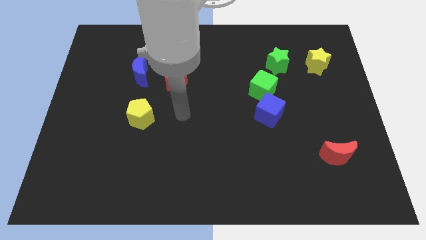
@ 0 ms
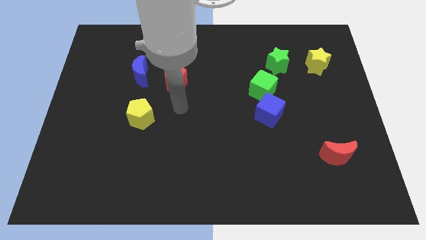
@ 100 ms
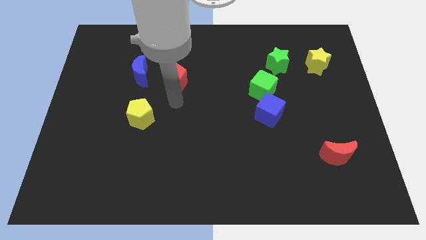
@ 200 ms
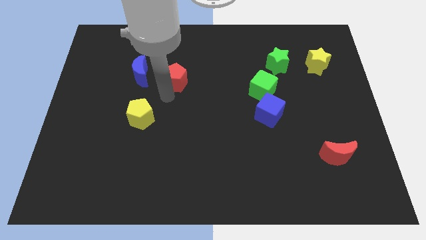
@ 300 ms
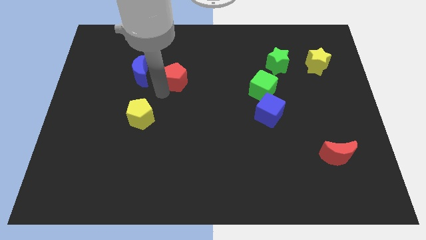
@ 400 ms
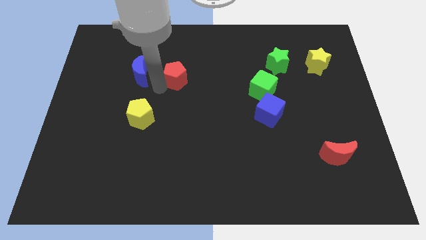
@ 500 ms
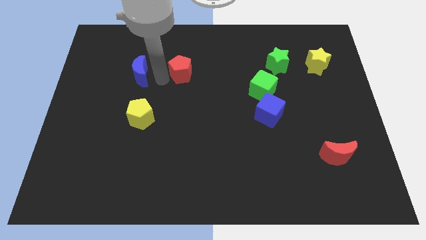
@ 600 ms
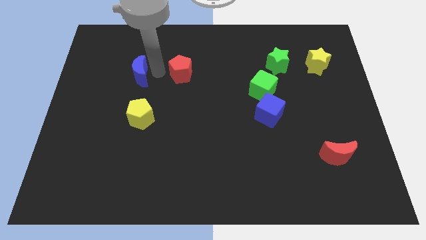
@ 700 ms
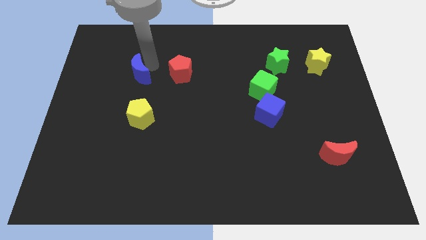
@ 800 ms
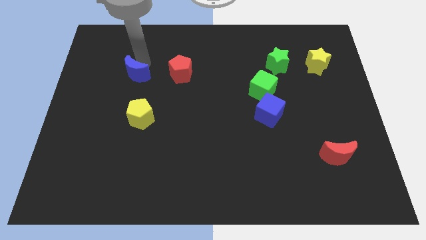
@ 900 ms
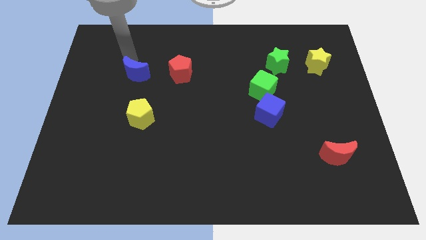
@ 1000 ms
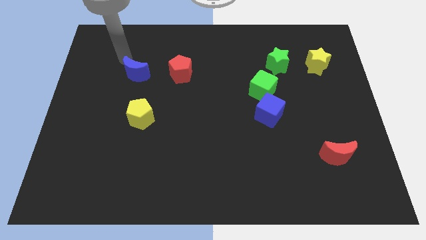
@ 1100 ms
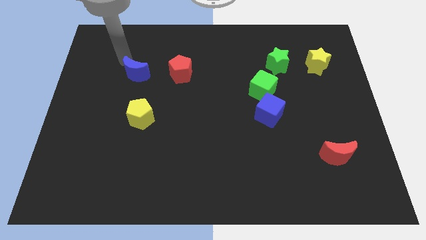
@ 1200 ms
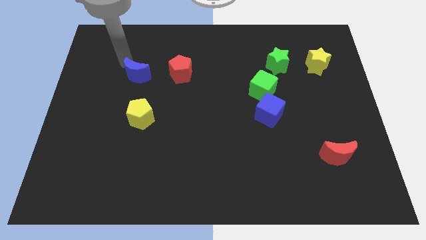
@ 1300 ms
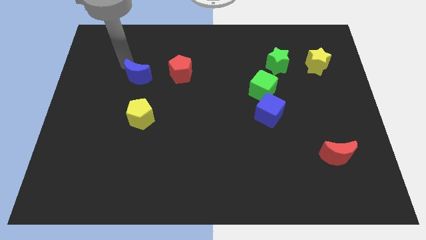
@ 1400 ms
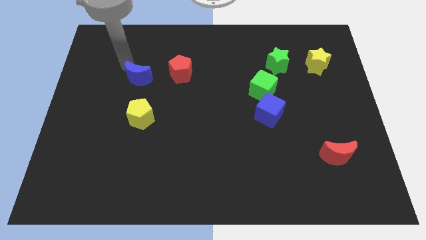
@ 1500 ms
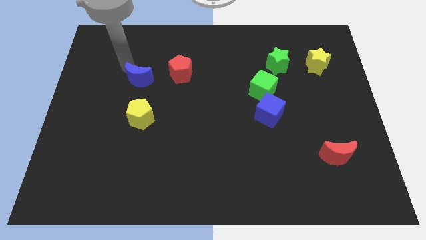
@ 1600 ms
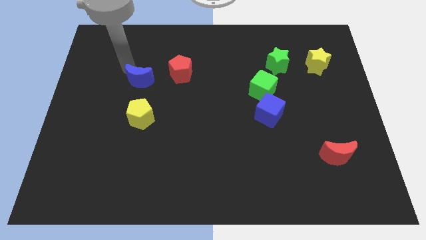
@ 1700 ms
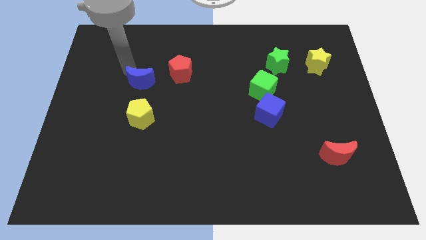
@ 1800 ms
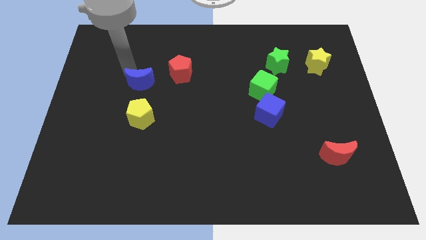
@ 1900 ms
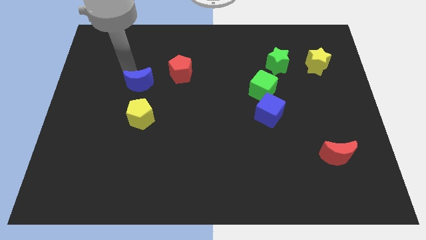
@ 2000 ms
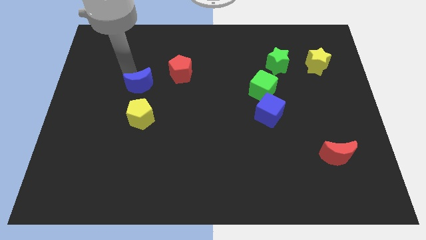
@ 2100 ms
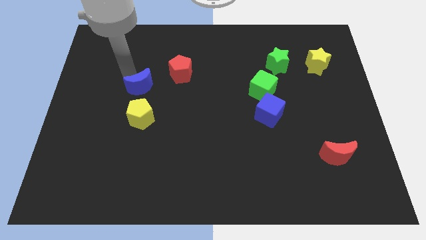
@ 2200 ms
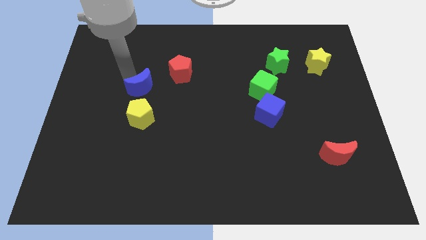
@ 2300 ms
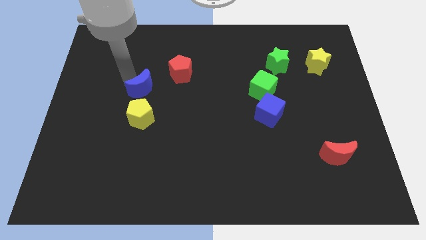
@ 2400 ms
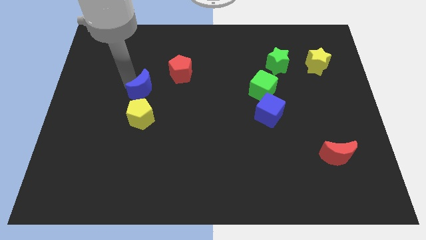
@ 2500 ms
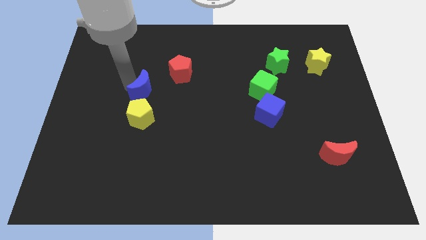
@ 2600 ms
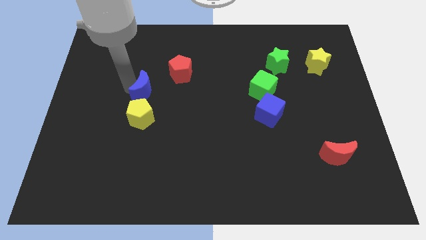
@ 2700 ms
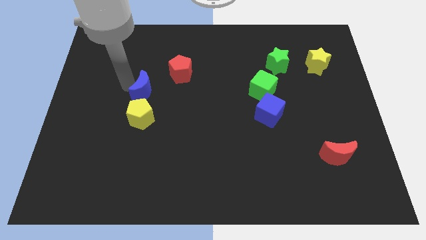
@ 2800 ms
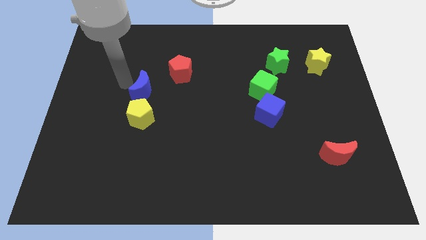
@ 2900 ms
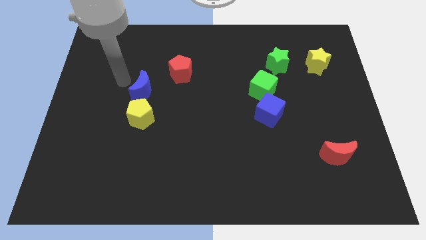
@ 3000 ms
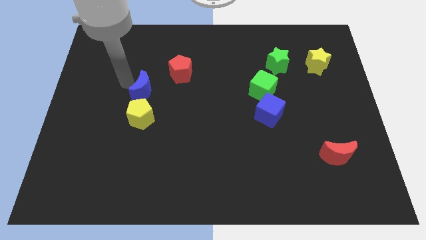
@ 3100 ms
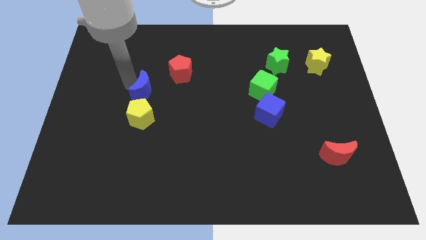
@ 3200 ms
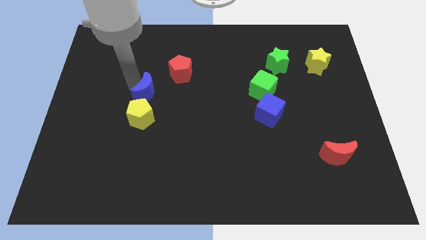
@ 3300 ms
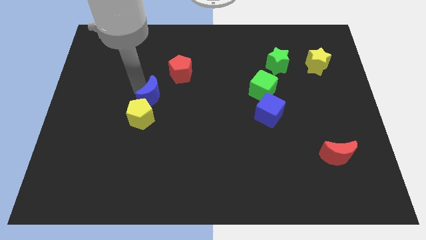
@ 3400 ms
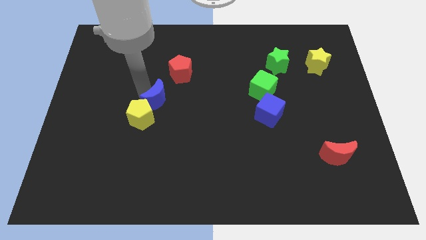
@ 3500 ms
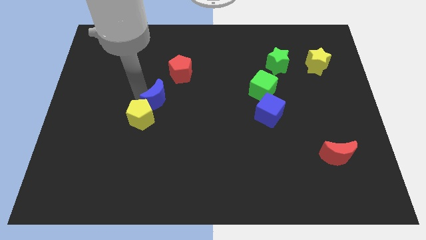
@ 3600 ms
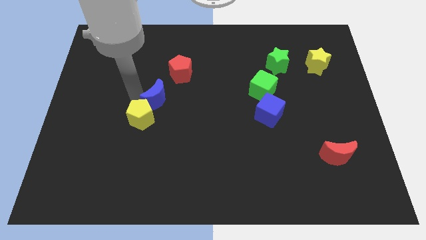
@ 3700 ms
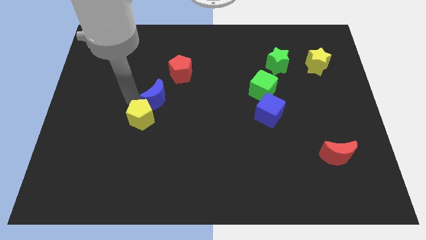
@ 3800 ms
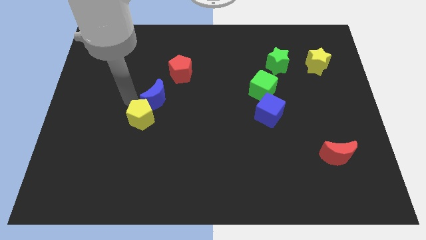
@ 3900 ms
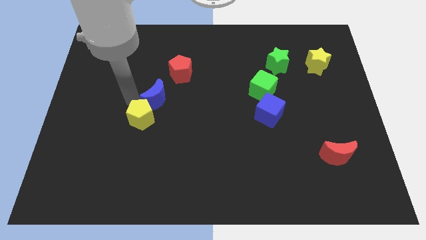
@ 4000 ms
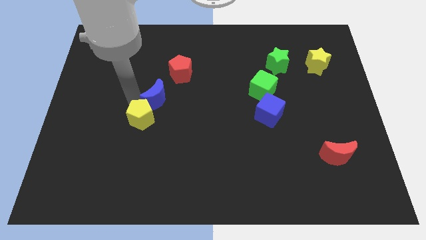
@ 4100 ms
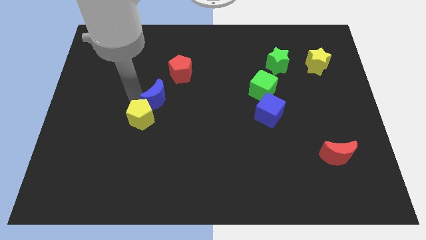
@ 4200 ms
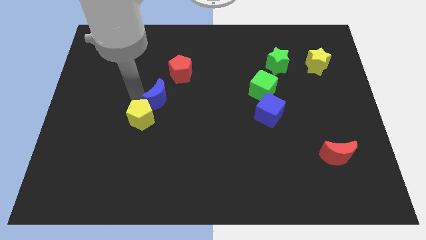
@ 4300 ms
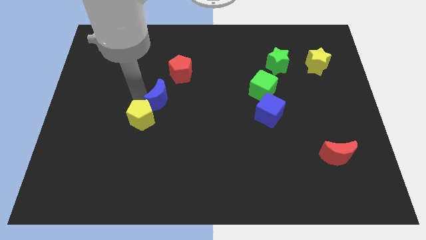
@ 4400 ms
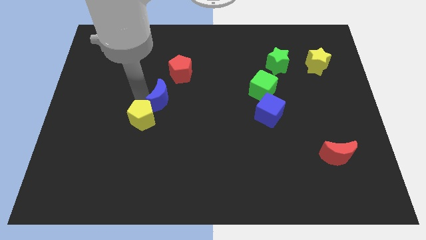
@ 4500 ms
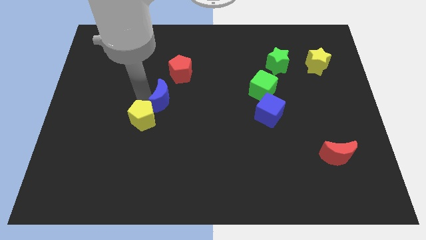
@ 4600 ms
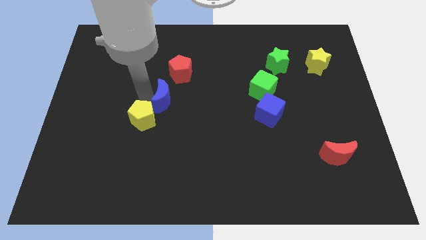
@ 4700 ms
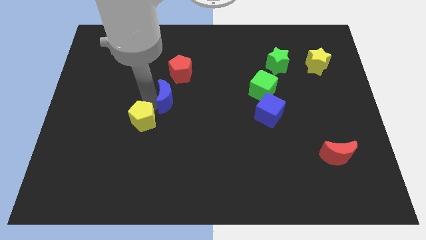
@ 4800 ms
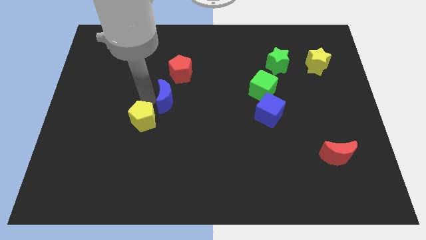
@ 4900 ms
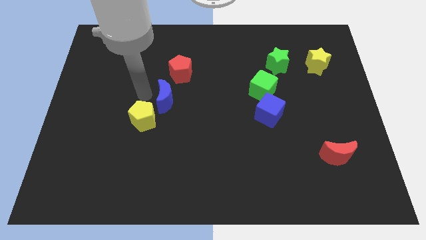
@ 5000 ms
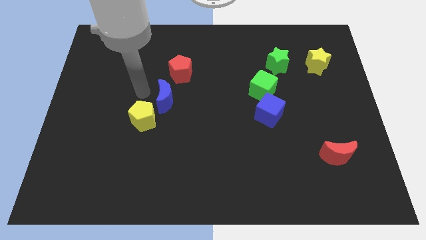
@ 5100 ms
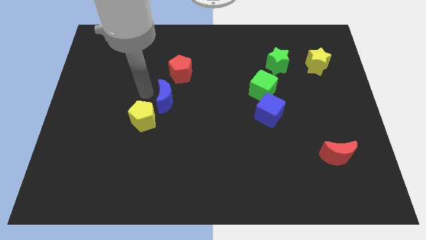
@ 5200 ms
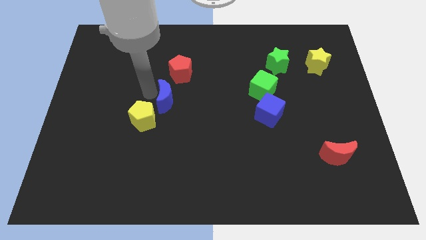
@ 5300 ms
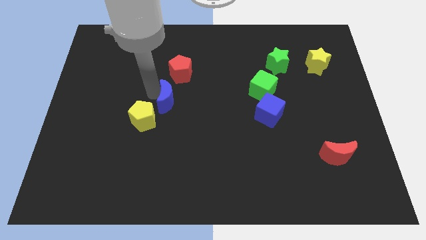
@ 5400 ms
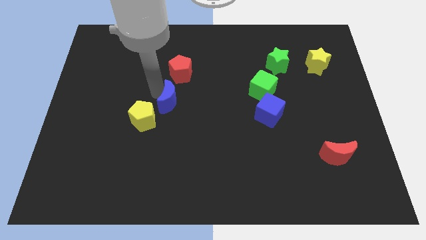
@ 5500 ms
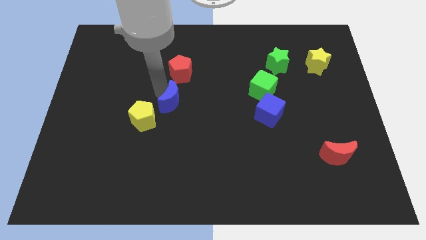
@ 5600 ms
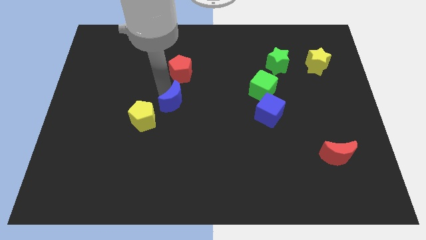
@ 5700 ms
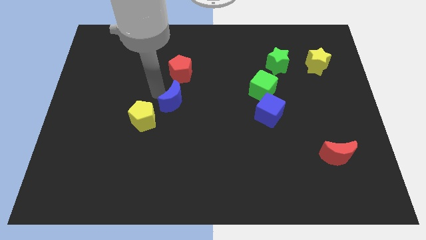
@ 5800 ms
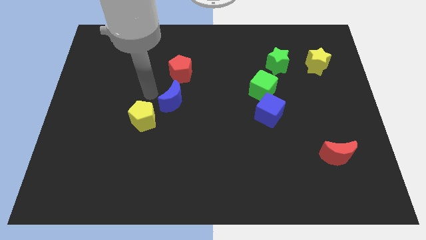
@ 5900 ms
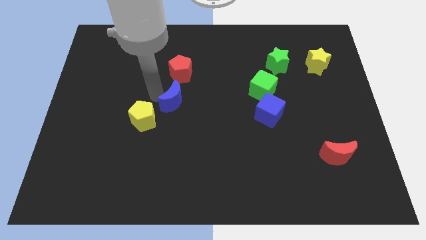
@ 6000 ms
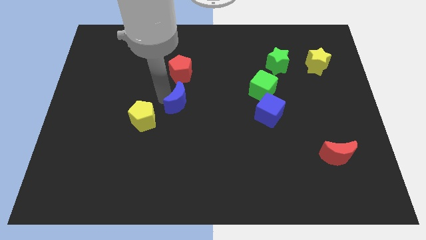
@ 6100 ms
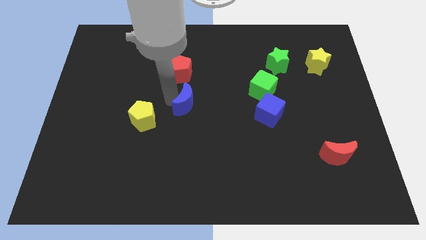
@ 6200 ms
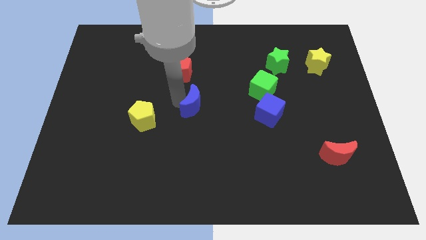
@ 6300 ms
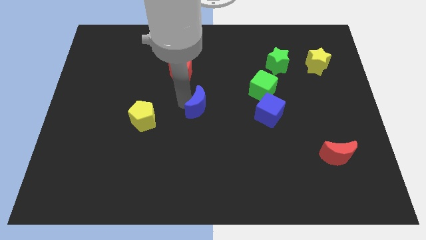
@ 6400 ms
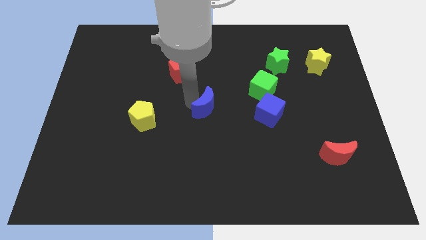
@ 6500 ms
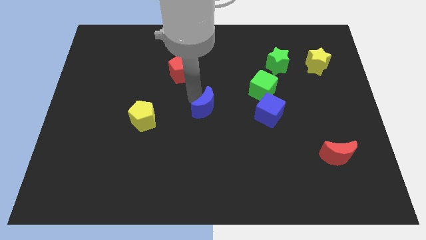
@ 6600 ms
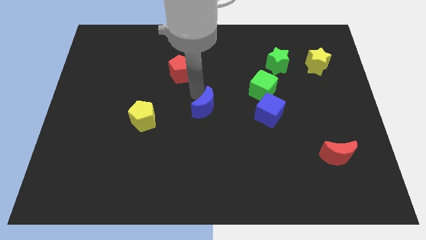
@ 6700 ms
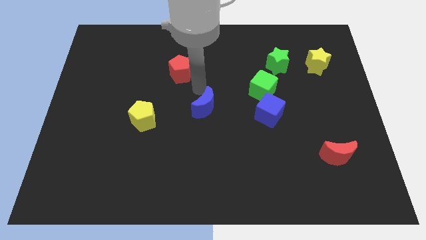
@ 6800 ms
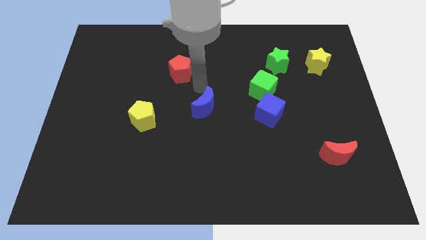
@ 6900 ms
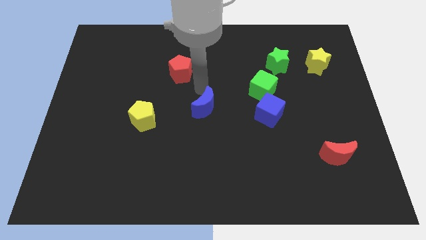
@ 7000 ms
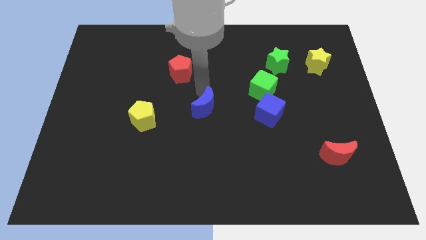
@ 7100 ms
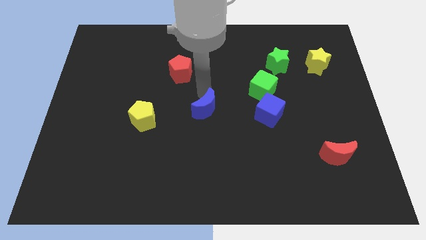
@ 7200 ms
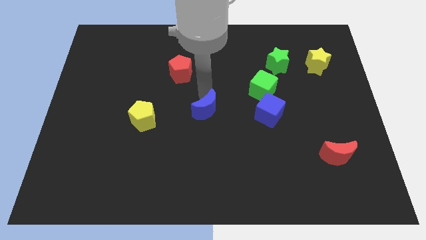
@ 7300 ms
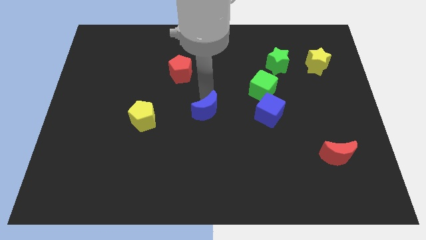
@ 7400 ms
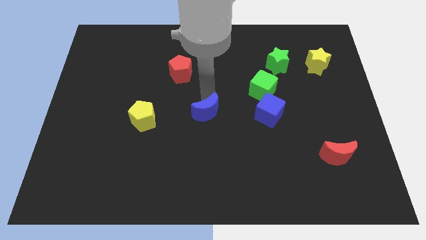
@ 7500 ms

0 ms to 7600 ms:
move the blue moon downwards and right

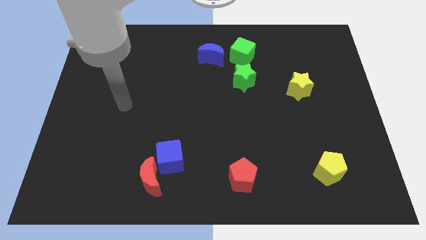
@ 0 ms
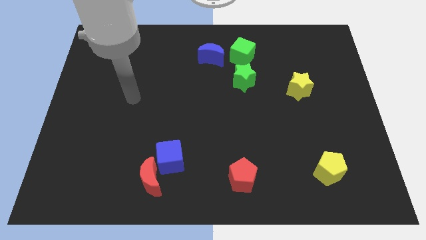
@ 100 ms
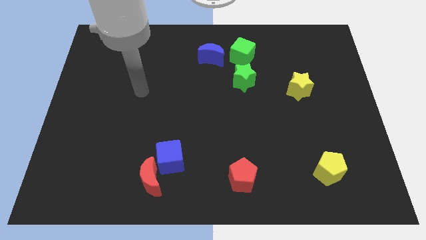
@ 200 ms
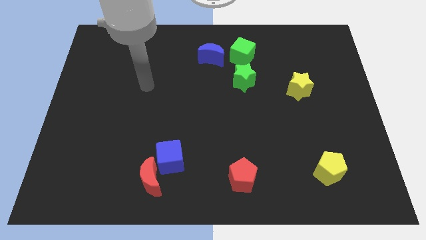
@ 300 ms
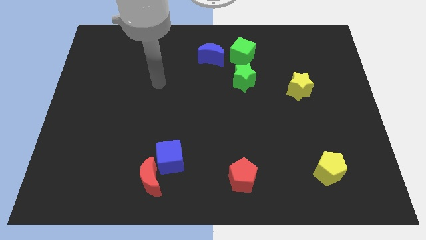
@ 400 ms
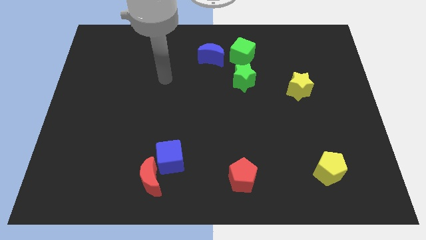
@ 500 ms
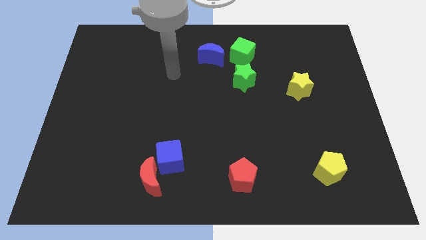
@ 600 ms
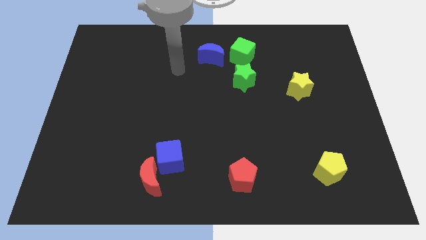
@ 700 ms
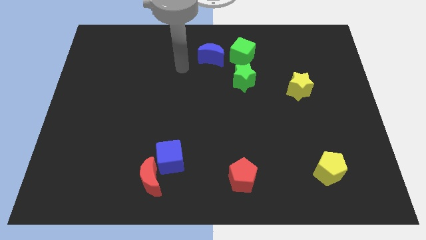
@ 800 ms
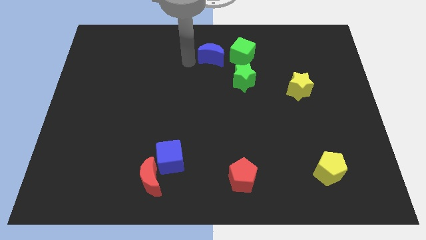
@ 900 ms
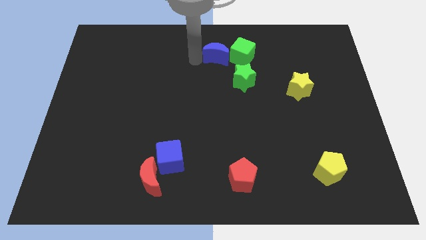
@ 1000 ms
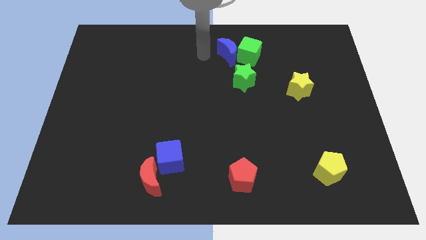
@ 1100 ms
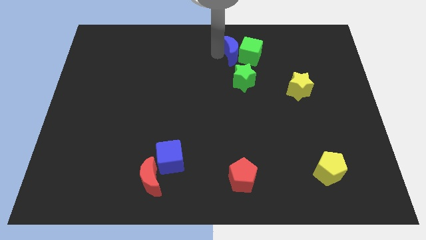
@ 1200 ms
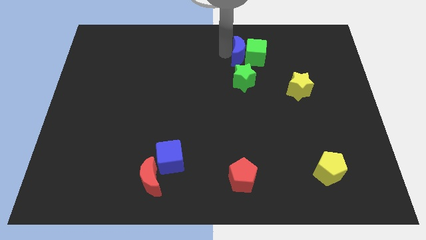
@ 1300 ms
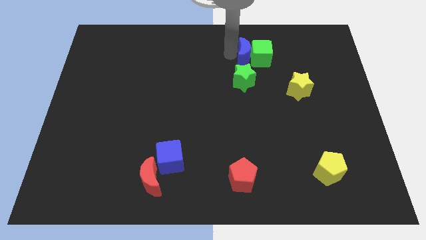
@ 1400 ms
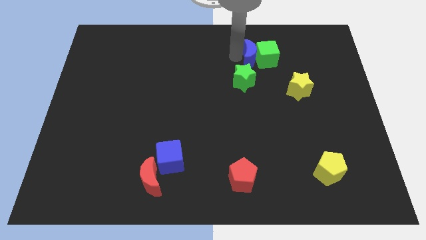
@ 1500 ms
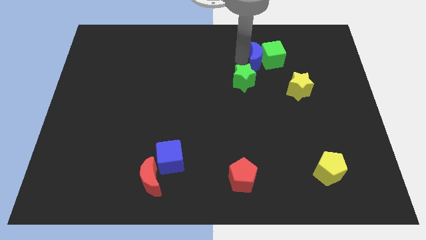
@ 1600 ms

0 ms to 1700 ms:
push the green cube a bit right
